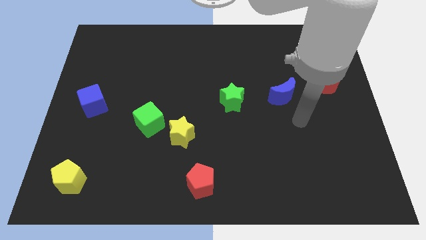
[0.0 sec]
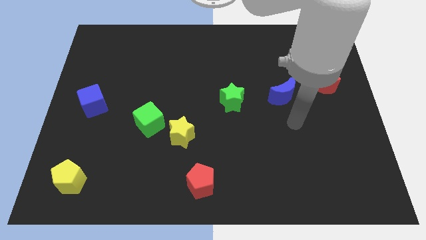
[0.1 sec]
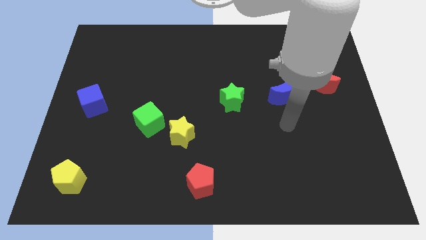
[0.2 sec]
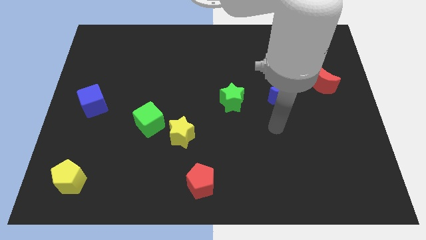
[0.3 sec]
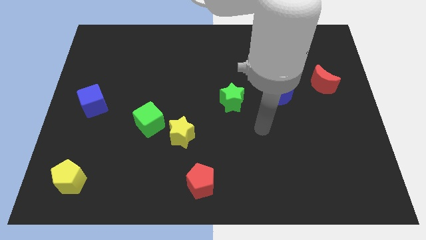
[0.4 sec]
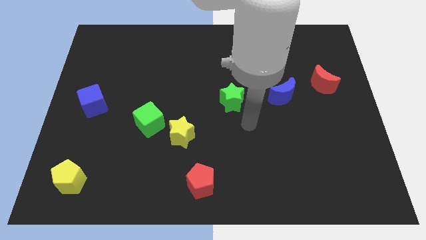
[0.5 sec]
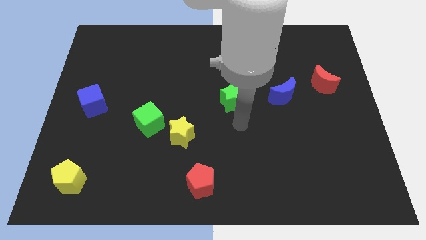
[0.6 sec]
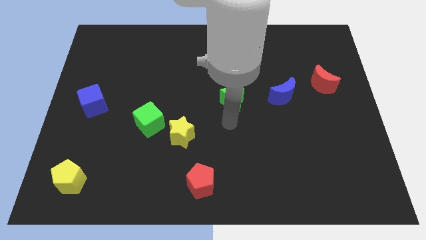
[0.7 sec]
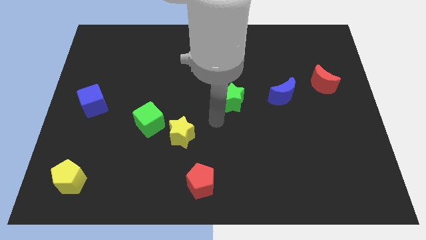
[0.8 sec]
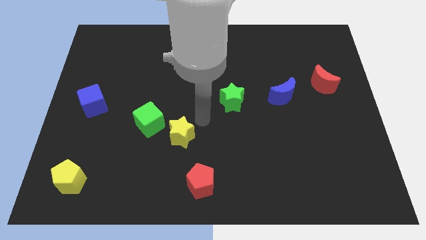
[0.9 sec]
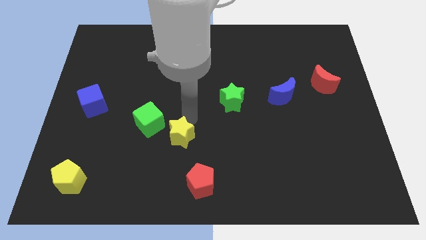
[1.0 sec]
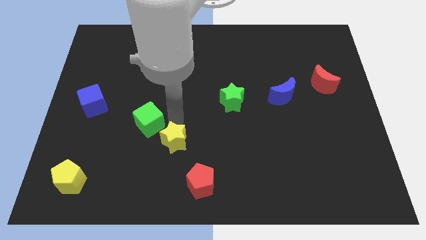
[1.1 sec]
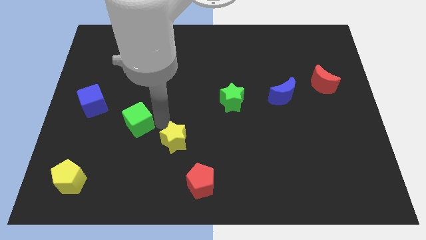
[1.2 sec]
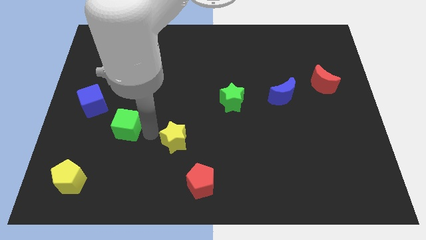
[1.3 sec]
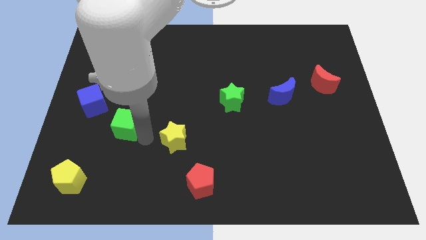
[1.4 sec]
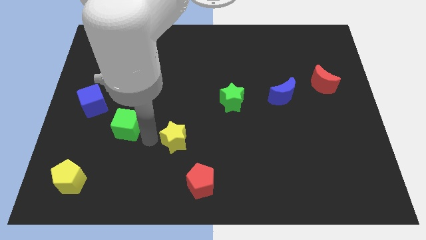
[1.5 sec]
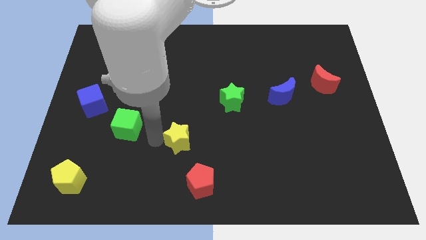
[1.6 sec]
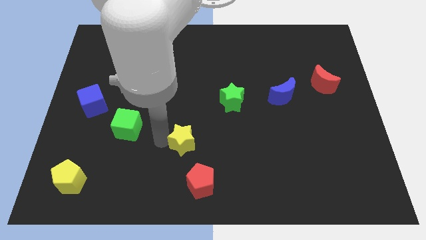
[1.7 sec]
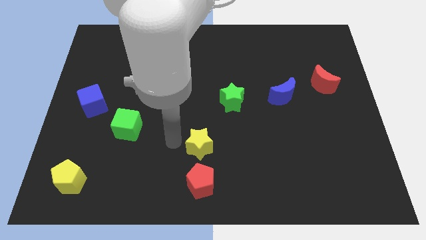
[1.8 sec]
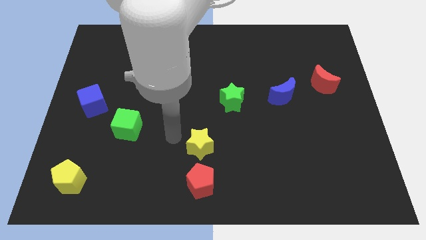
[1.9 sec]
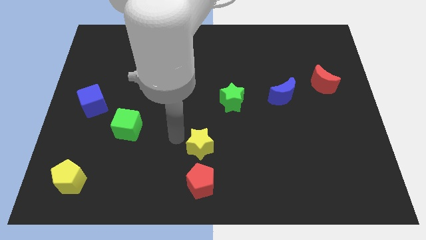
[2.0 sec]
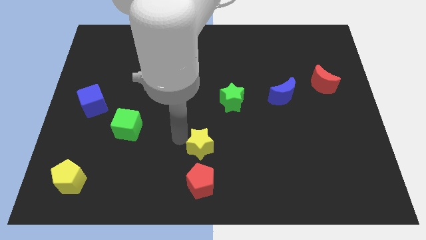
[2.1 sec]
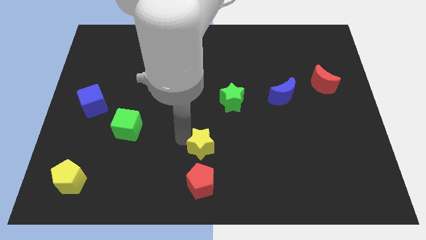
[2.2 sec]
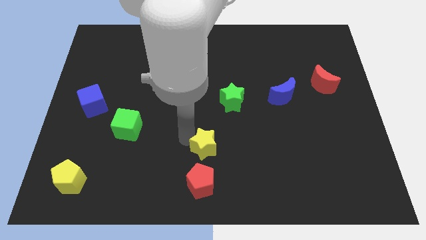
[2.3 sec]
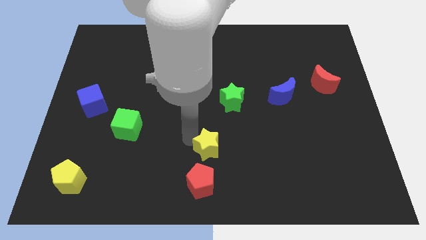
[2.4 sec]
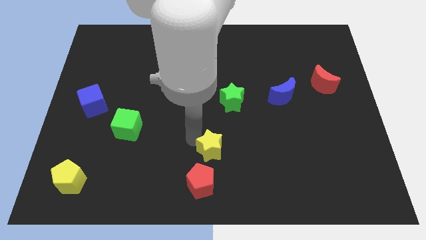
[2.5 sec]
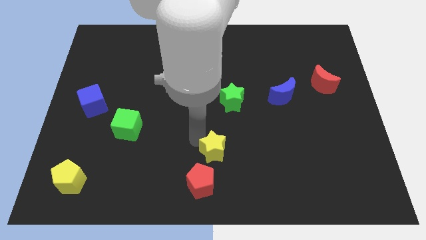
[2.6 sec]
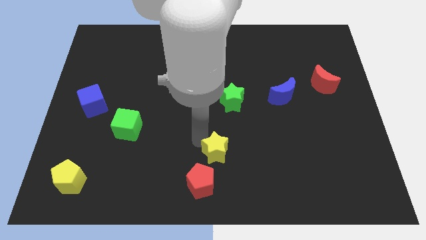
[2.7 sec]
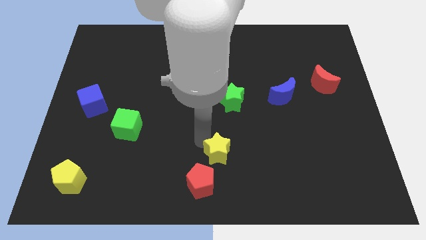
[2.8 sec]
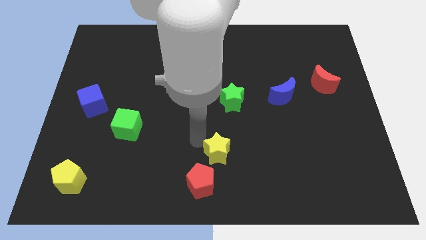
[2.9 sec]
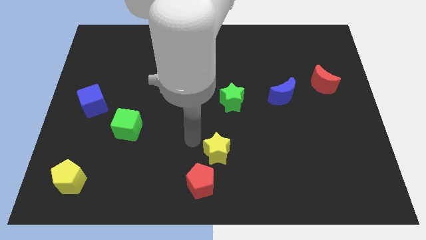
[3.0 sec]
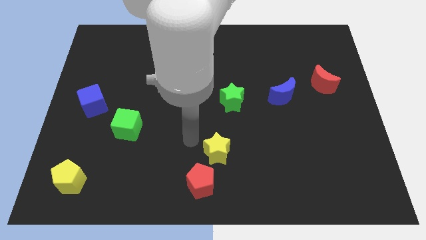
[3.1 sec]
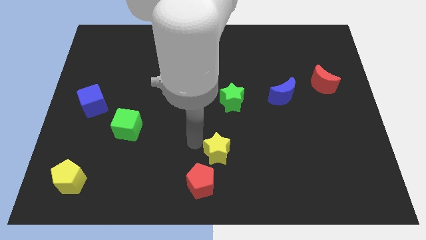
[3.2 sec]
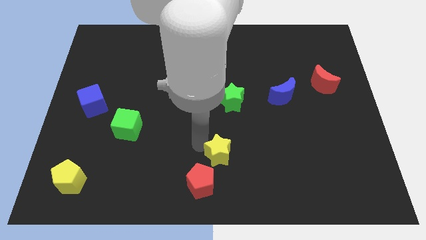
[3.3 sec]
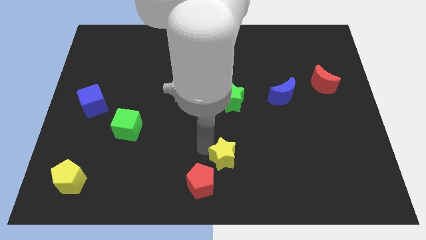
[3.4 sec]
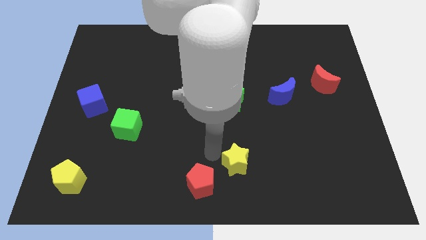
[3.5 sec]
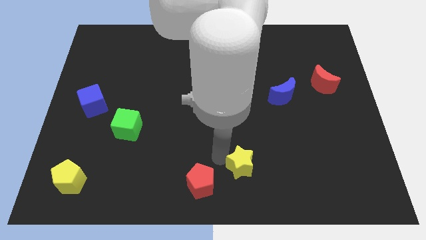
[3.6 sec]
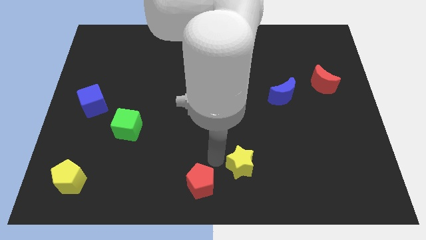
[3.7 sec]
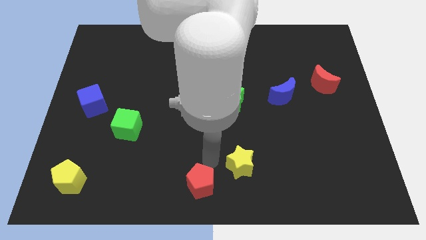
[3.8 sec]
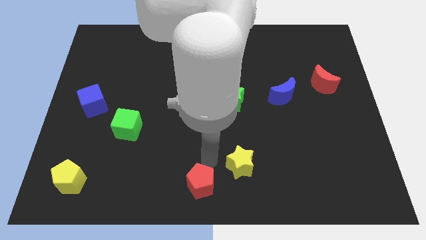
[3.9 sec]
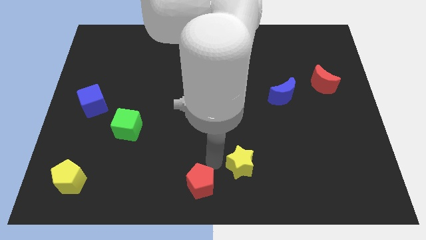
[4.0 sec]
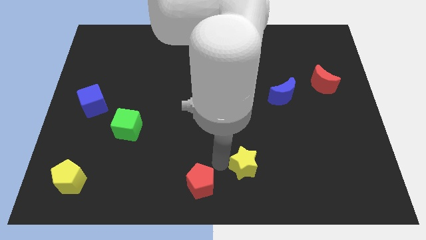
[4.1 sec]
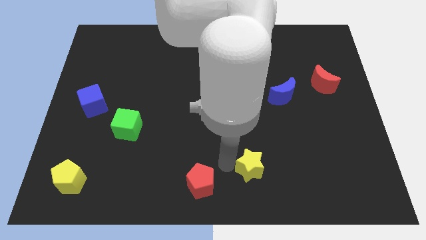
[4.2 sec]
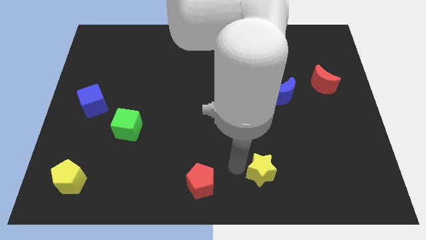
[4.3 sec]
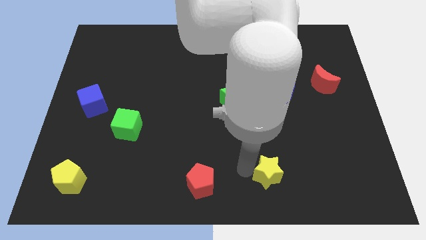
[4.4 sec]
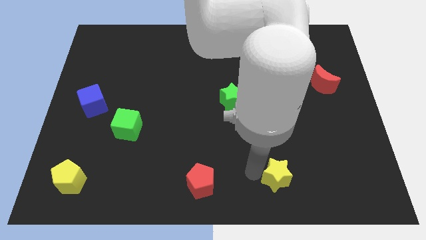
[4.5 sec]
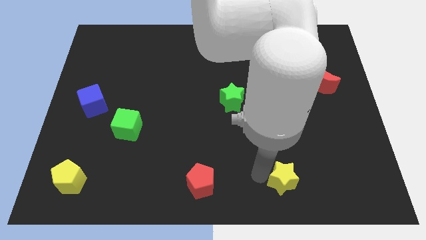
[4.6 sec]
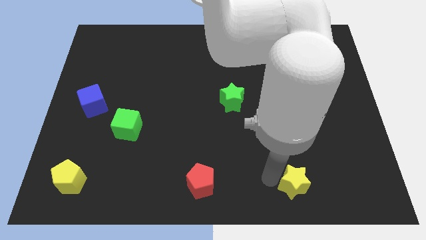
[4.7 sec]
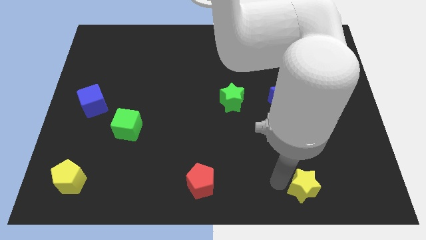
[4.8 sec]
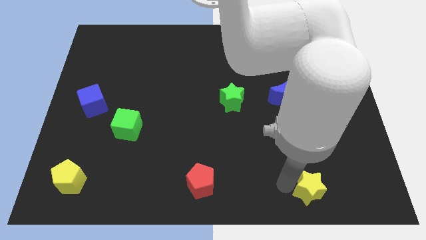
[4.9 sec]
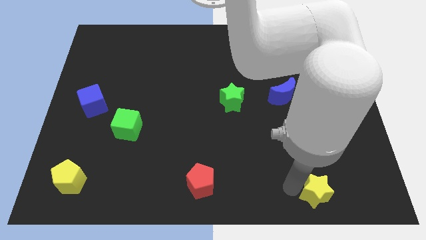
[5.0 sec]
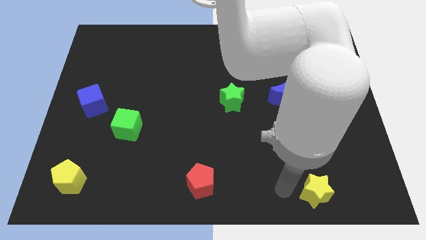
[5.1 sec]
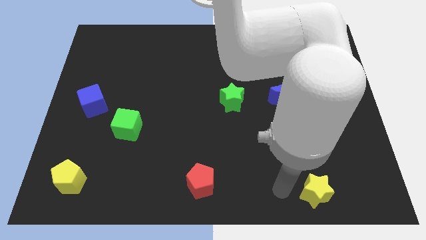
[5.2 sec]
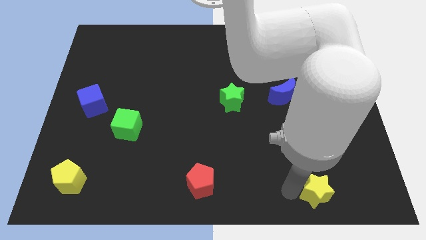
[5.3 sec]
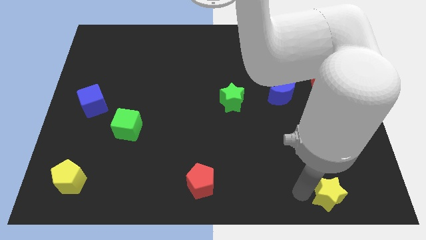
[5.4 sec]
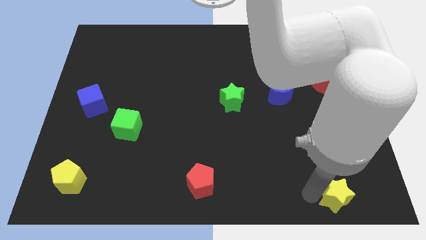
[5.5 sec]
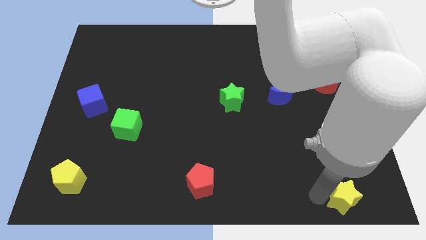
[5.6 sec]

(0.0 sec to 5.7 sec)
slide the yellow star to the bottom right of the board

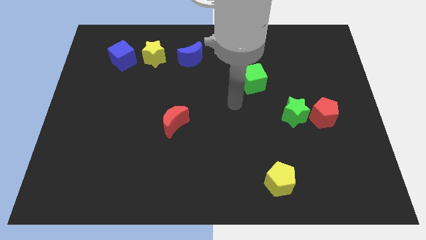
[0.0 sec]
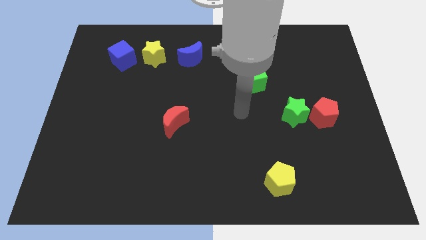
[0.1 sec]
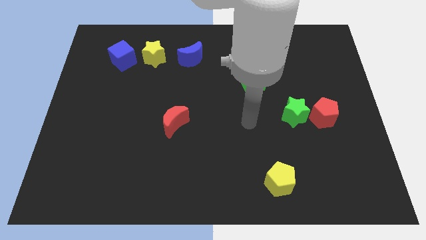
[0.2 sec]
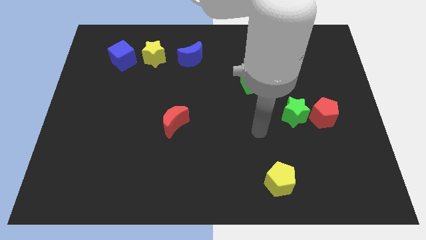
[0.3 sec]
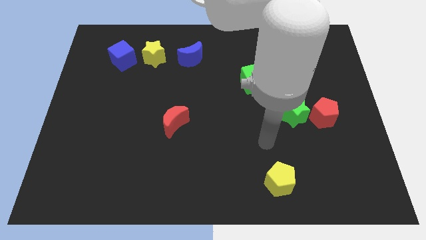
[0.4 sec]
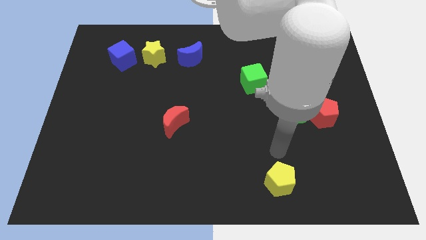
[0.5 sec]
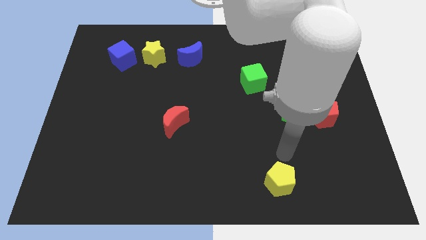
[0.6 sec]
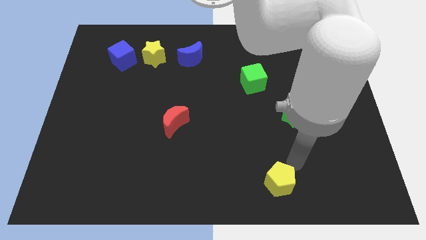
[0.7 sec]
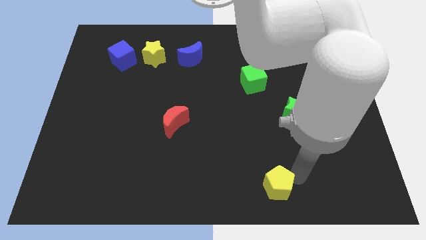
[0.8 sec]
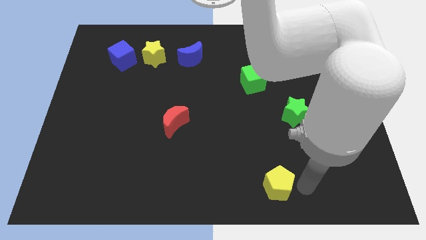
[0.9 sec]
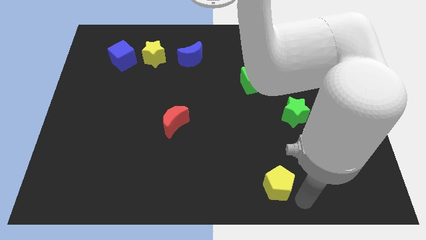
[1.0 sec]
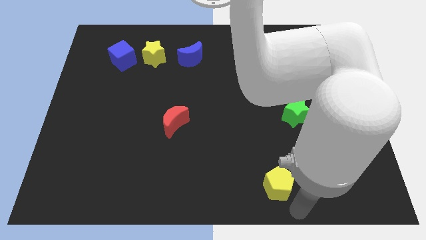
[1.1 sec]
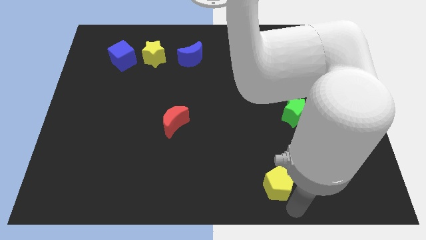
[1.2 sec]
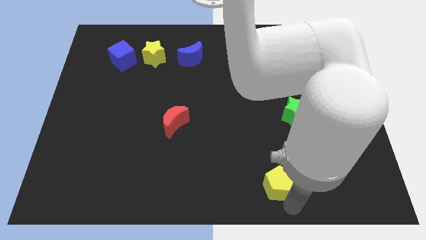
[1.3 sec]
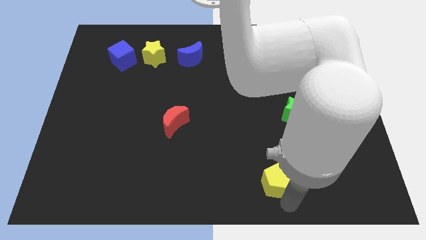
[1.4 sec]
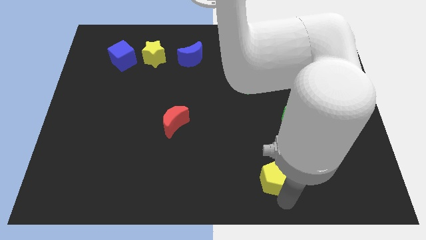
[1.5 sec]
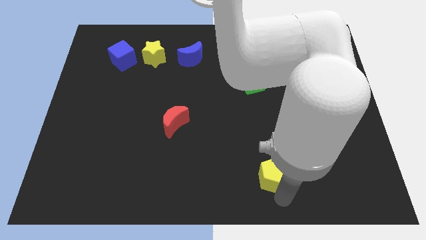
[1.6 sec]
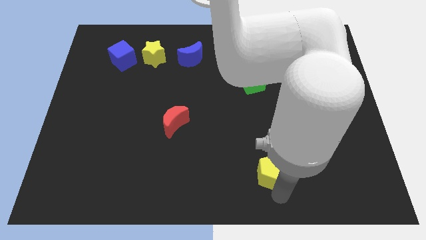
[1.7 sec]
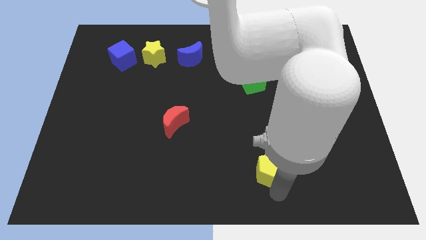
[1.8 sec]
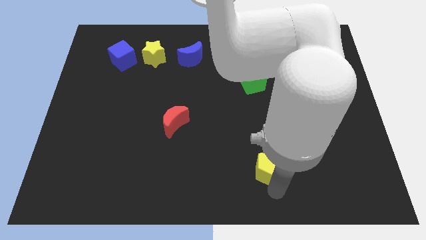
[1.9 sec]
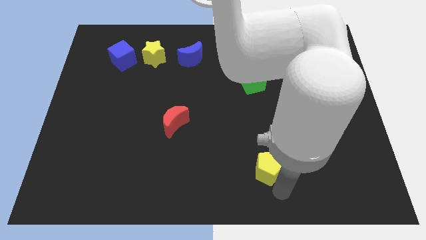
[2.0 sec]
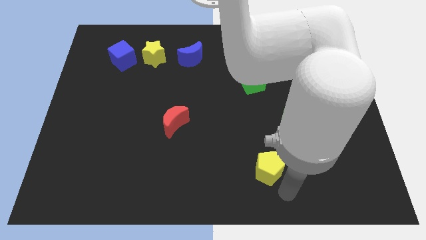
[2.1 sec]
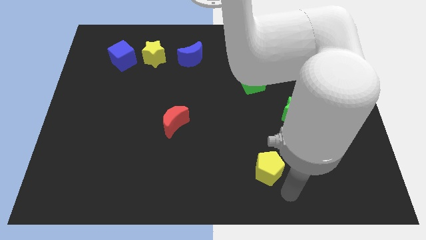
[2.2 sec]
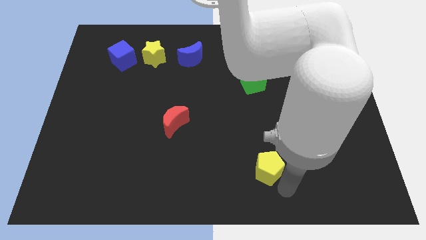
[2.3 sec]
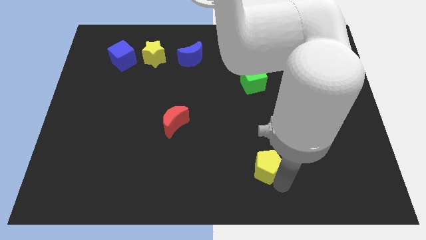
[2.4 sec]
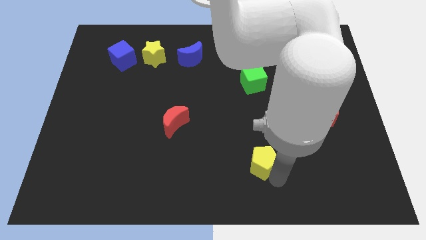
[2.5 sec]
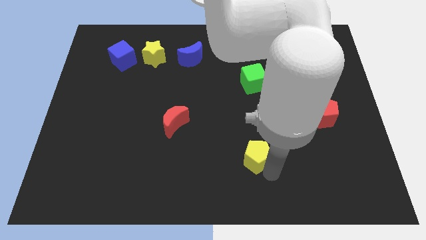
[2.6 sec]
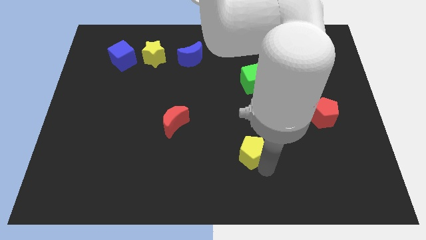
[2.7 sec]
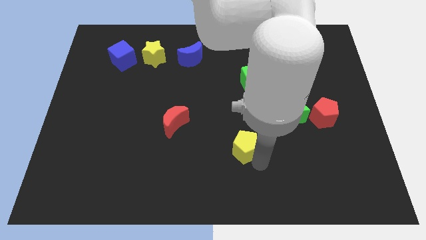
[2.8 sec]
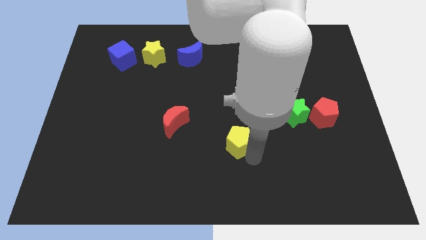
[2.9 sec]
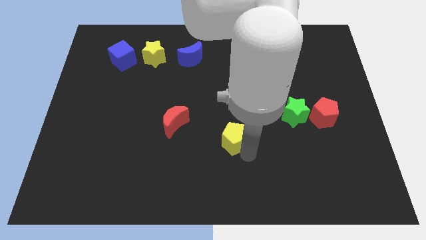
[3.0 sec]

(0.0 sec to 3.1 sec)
slide the yellow pentagon to the middle of the board
